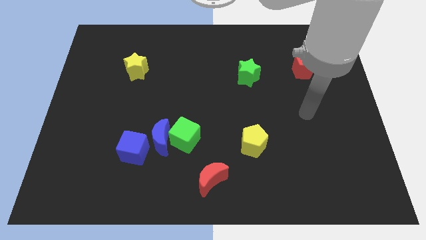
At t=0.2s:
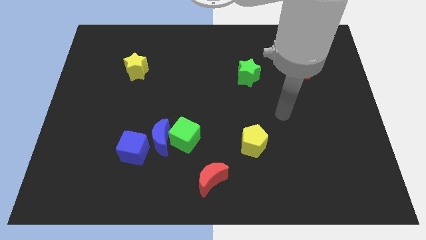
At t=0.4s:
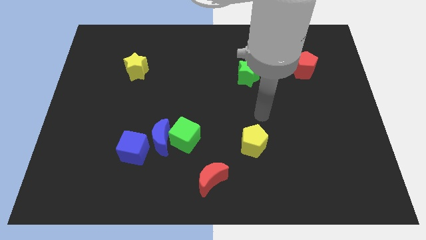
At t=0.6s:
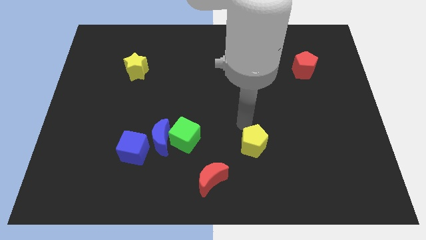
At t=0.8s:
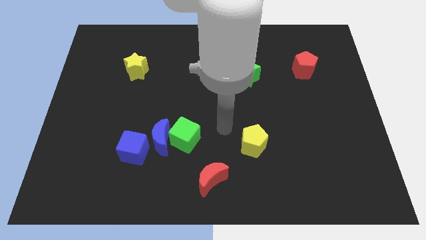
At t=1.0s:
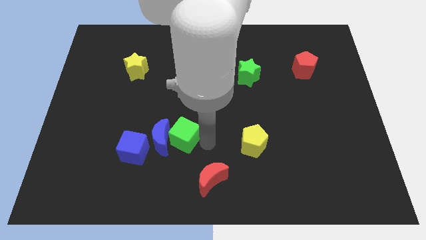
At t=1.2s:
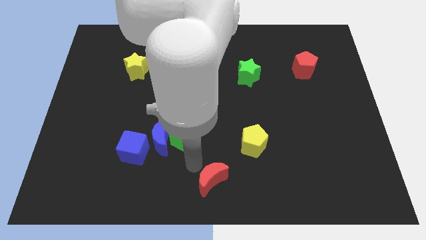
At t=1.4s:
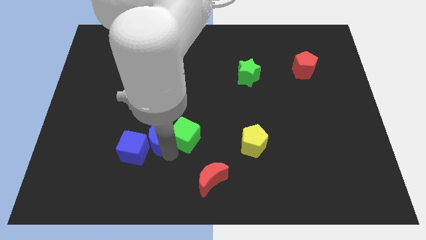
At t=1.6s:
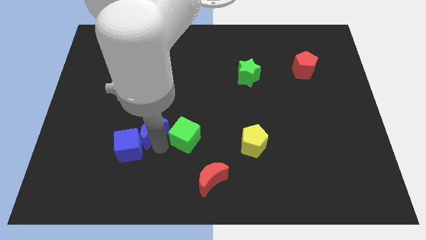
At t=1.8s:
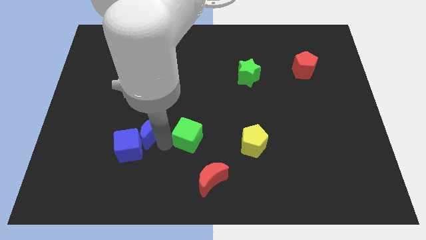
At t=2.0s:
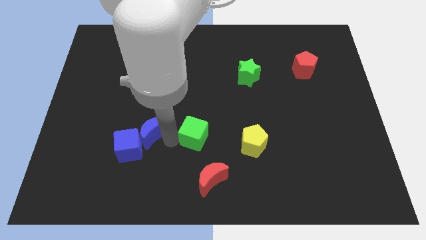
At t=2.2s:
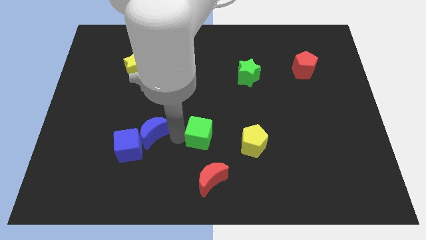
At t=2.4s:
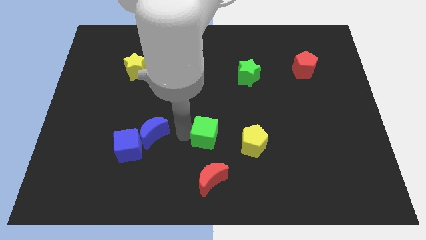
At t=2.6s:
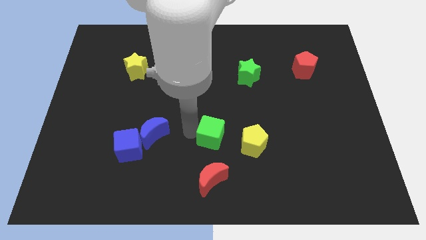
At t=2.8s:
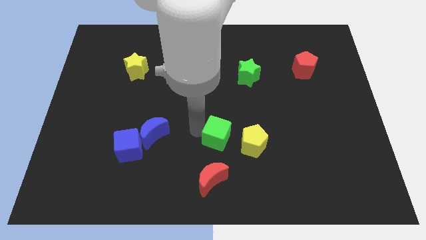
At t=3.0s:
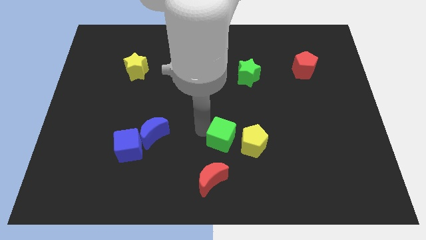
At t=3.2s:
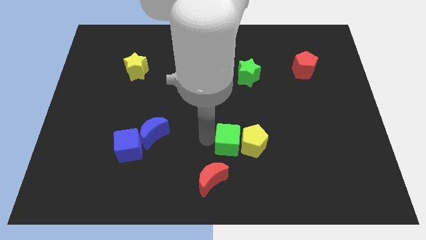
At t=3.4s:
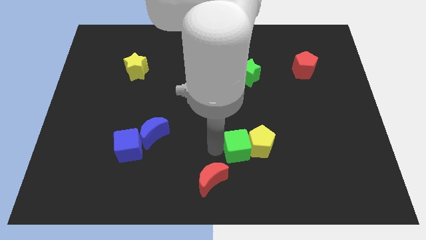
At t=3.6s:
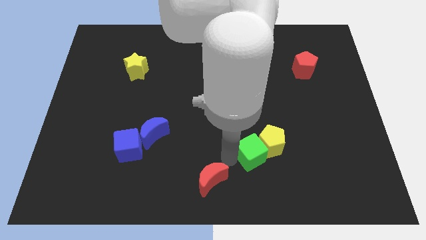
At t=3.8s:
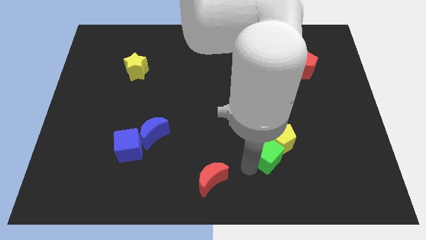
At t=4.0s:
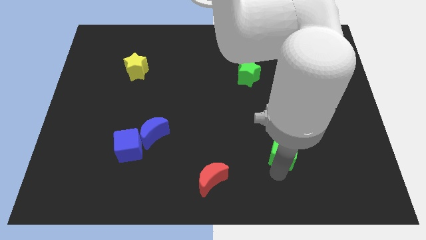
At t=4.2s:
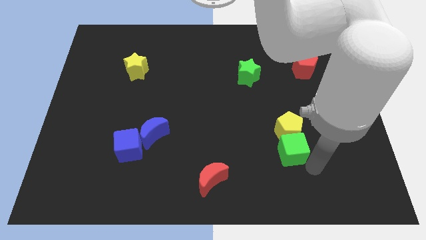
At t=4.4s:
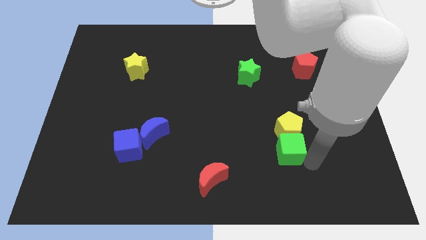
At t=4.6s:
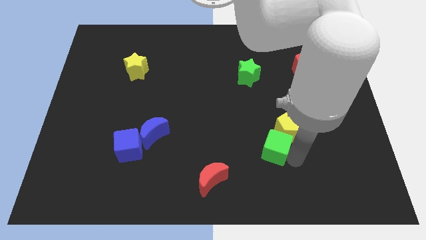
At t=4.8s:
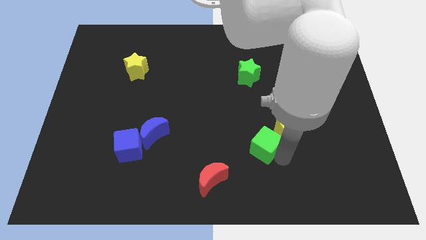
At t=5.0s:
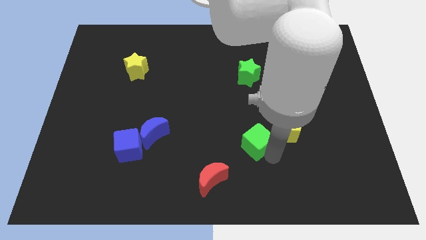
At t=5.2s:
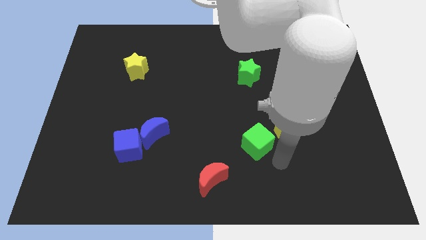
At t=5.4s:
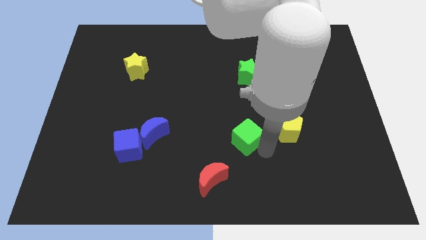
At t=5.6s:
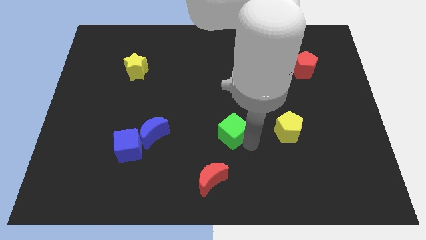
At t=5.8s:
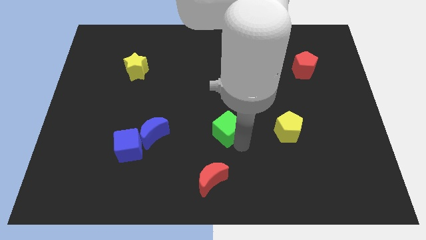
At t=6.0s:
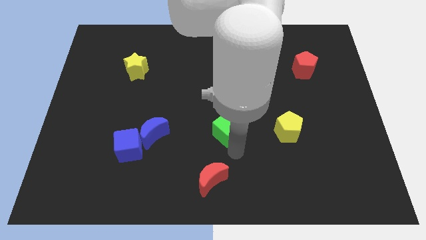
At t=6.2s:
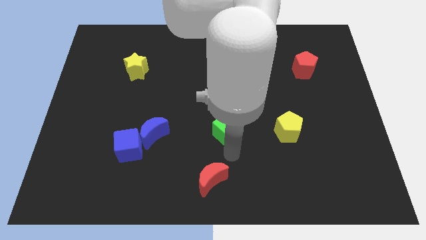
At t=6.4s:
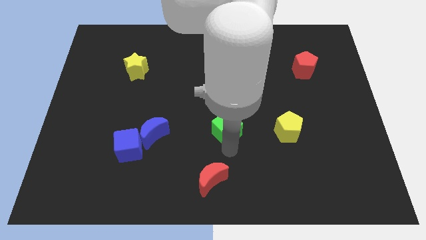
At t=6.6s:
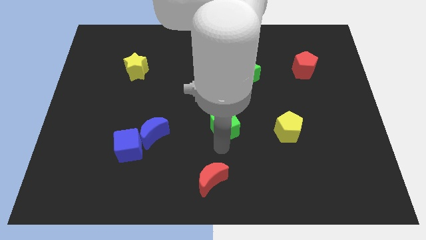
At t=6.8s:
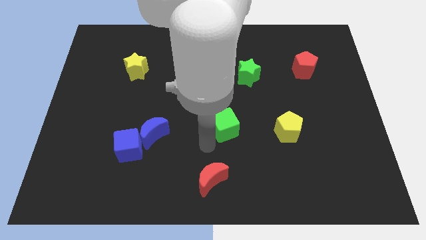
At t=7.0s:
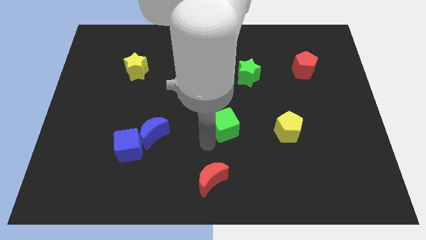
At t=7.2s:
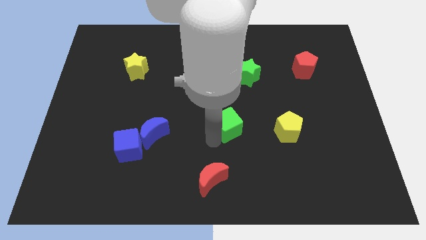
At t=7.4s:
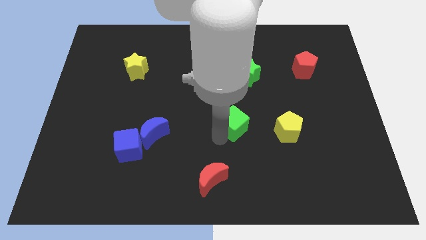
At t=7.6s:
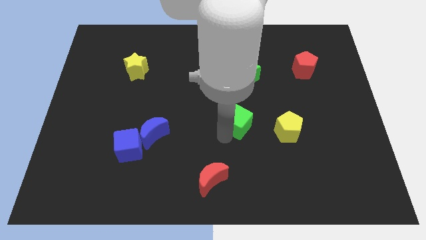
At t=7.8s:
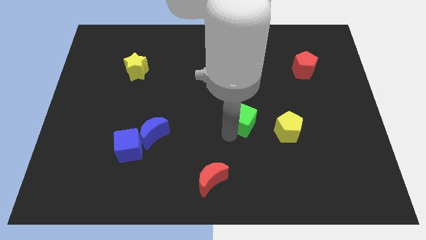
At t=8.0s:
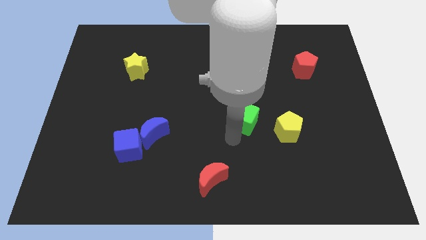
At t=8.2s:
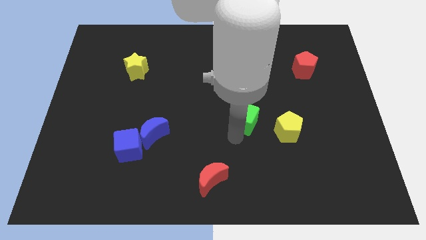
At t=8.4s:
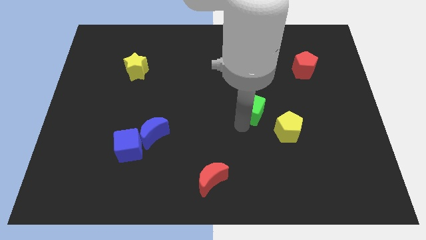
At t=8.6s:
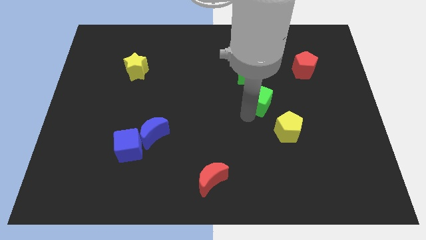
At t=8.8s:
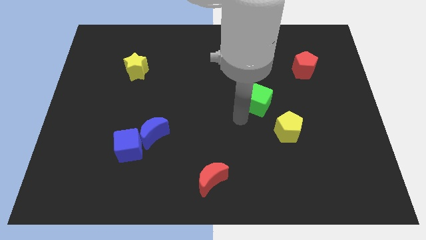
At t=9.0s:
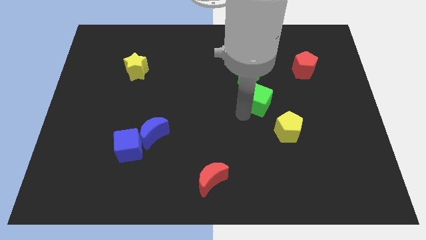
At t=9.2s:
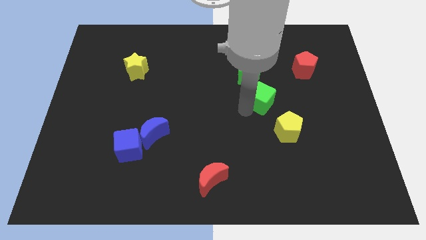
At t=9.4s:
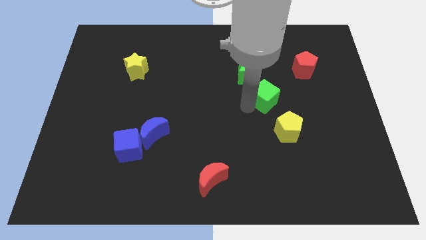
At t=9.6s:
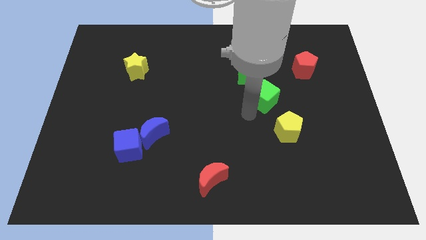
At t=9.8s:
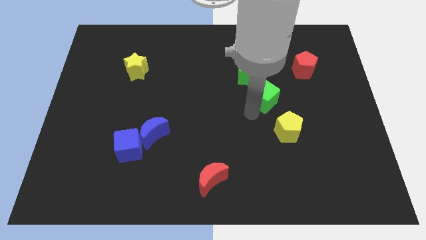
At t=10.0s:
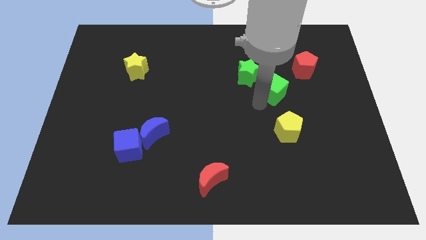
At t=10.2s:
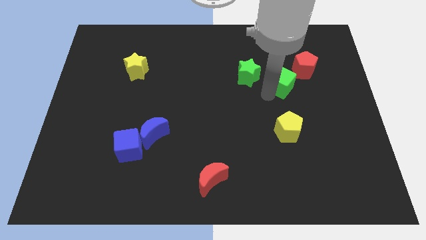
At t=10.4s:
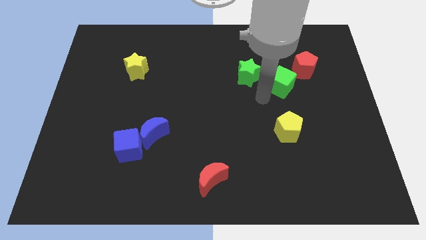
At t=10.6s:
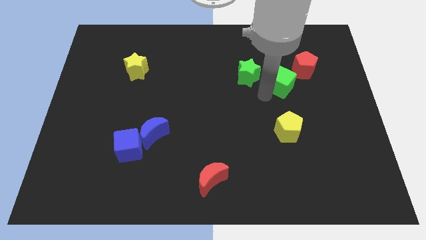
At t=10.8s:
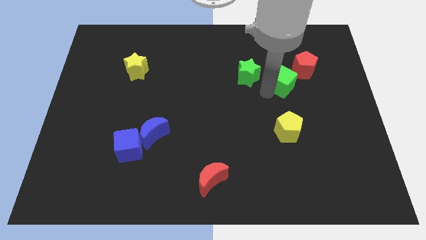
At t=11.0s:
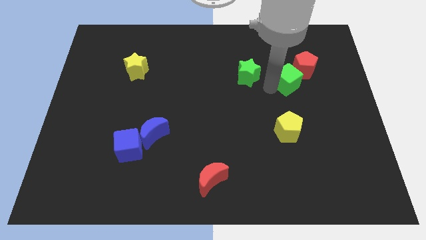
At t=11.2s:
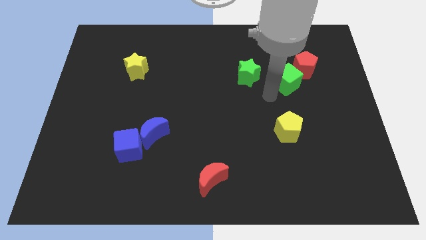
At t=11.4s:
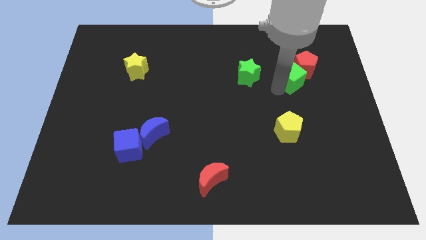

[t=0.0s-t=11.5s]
move the green cube to the red pentagon

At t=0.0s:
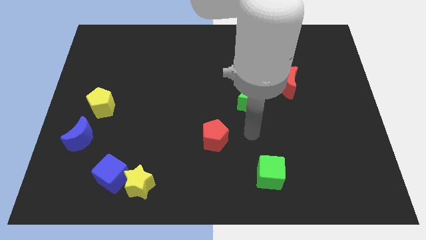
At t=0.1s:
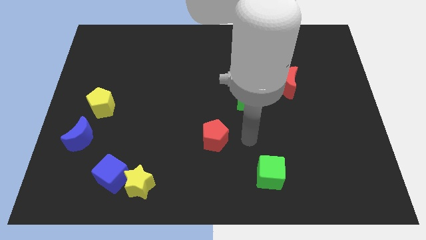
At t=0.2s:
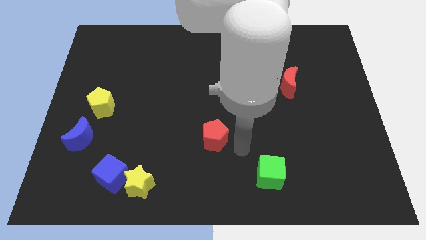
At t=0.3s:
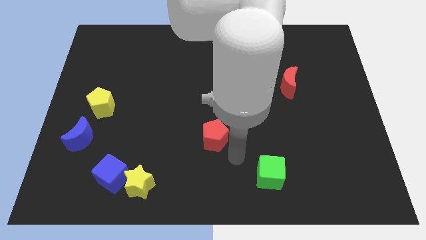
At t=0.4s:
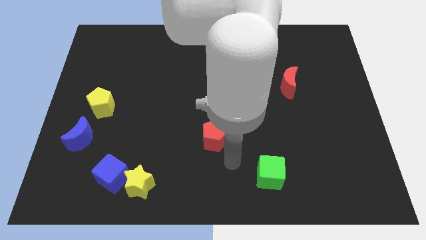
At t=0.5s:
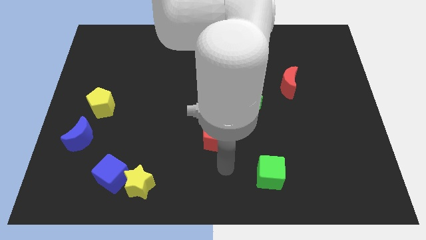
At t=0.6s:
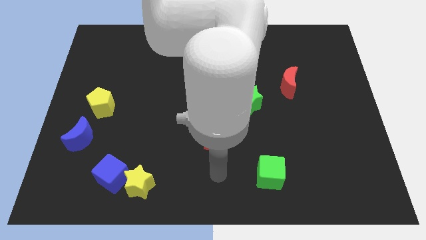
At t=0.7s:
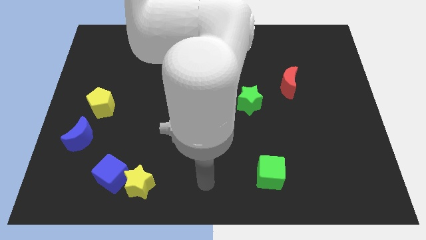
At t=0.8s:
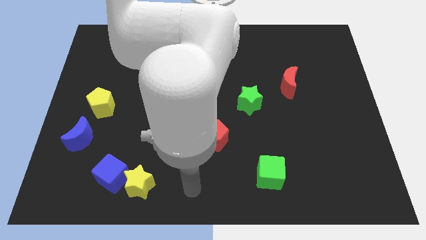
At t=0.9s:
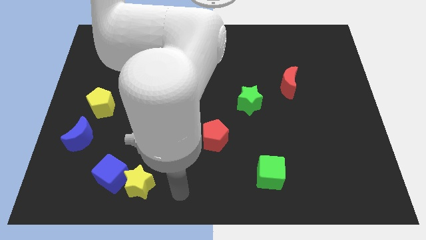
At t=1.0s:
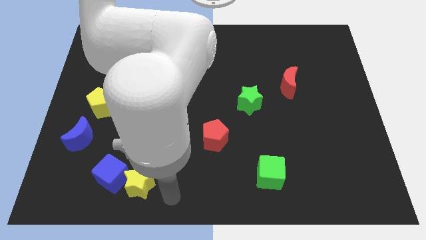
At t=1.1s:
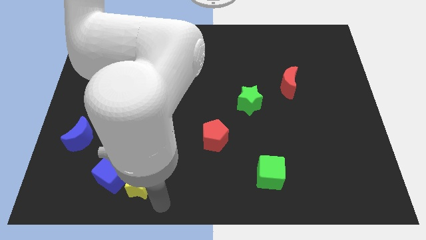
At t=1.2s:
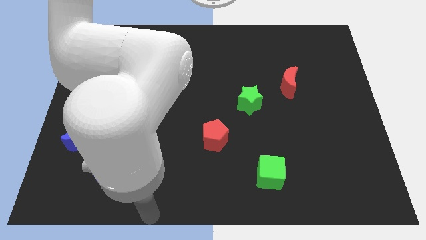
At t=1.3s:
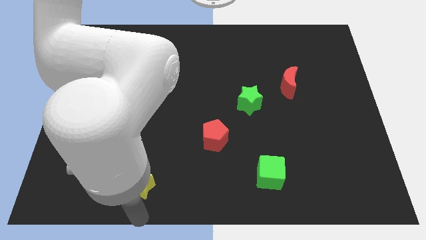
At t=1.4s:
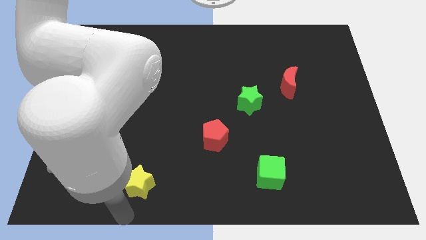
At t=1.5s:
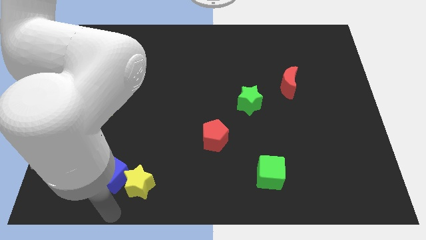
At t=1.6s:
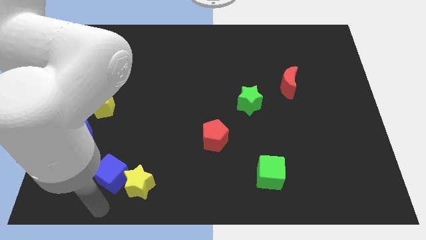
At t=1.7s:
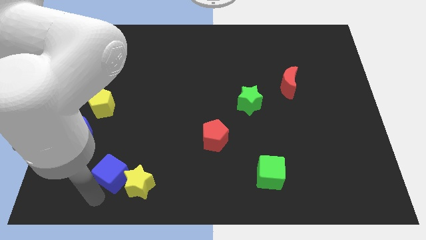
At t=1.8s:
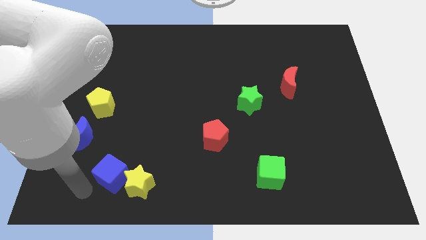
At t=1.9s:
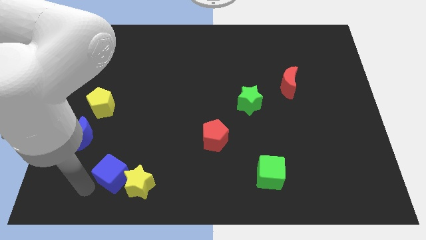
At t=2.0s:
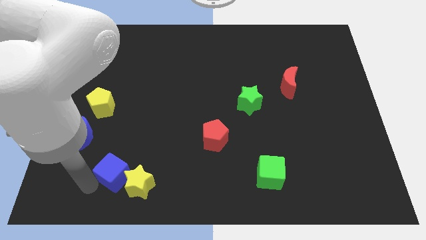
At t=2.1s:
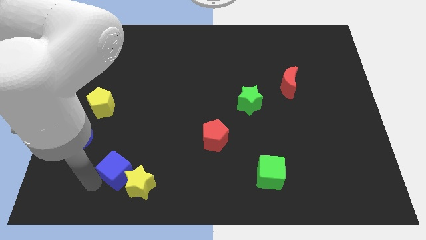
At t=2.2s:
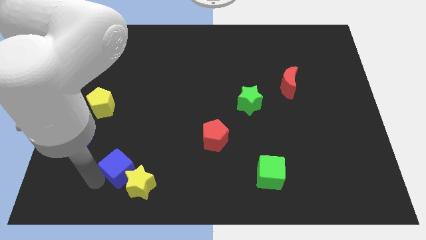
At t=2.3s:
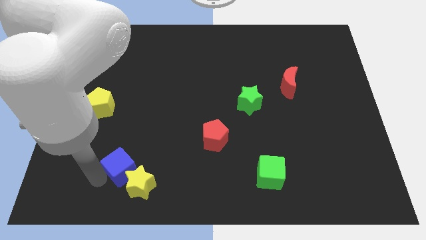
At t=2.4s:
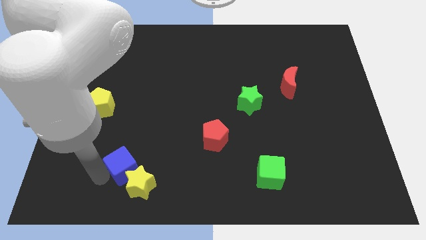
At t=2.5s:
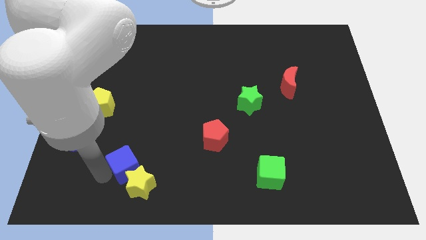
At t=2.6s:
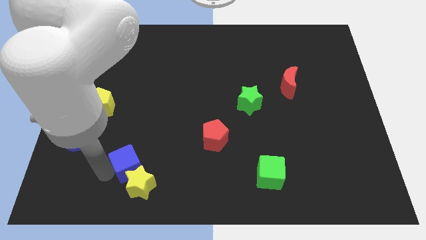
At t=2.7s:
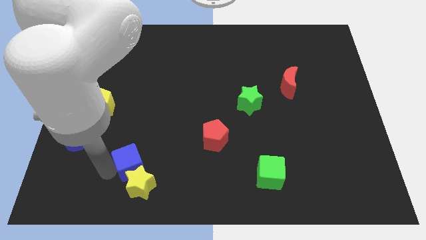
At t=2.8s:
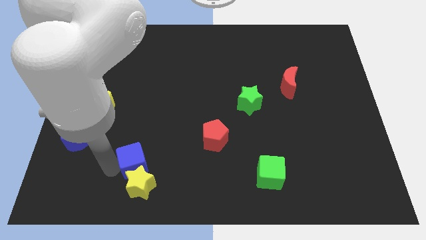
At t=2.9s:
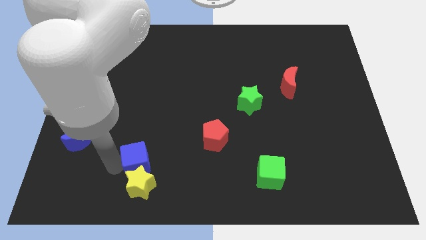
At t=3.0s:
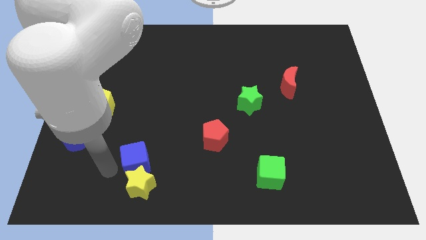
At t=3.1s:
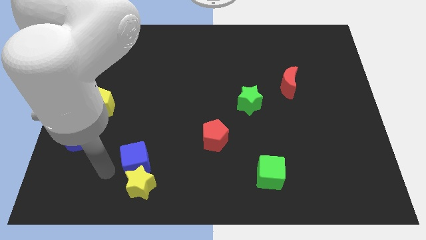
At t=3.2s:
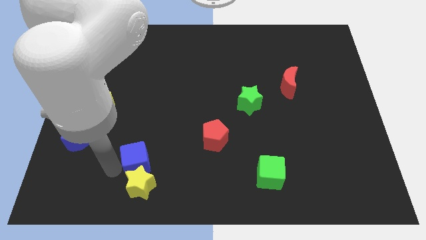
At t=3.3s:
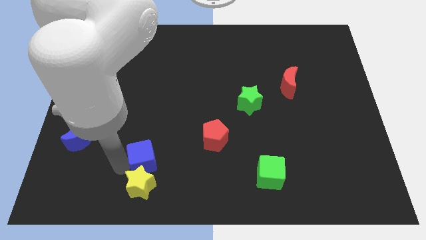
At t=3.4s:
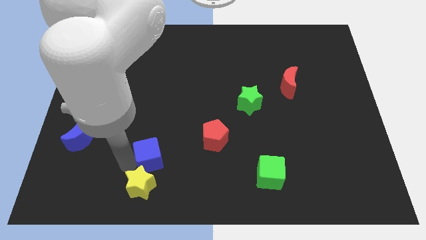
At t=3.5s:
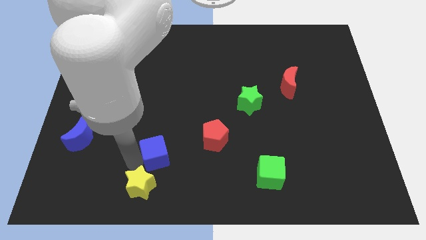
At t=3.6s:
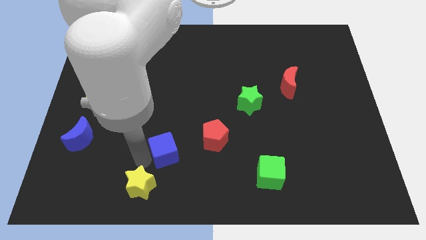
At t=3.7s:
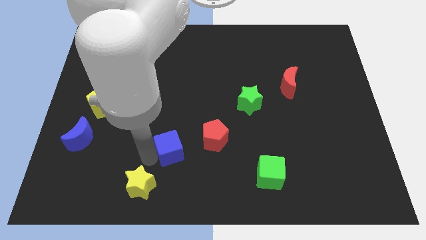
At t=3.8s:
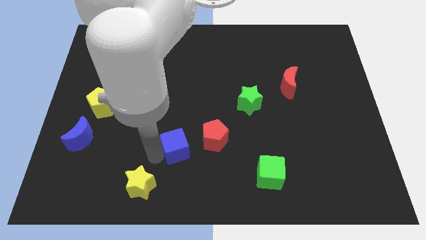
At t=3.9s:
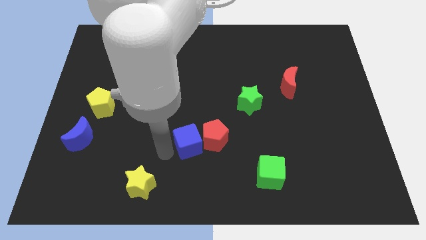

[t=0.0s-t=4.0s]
move the blue cube to the red pentagon
